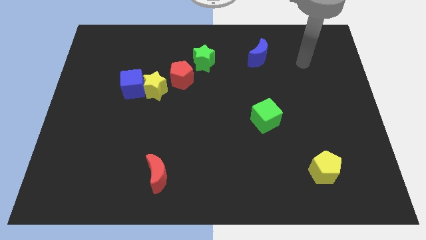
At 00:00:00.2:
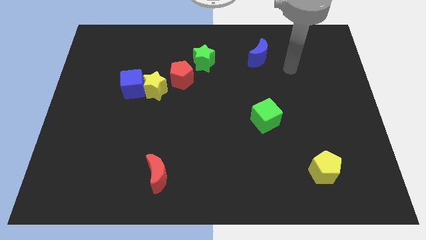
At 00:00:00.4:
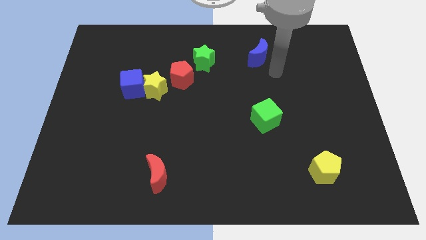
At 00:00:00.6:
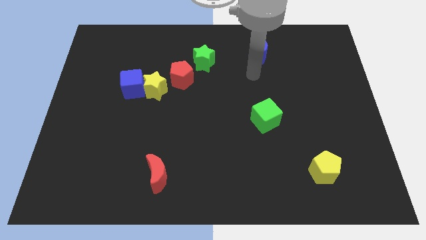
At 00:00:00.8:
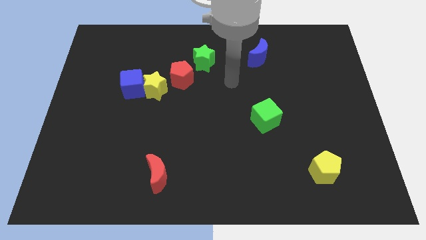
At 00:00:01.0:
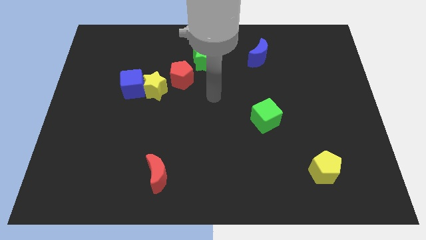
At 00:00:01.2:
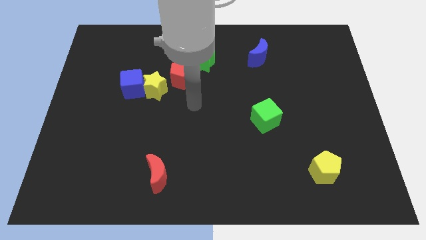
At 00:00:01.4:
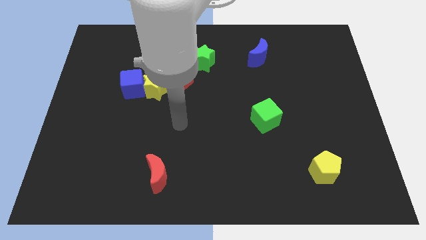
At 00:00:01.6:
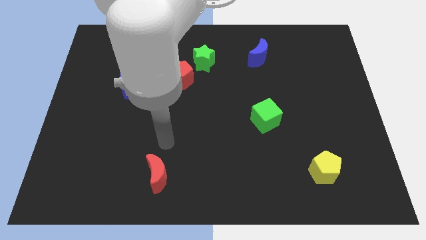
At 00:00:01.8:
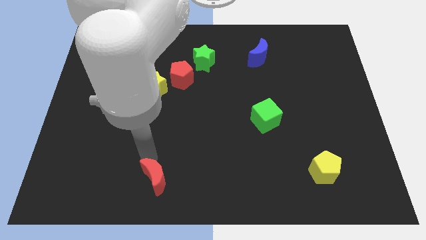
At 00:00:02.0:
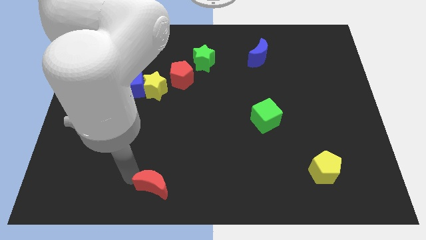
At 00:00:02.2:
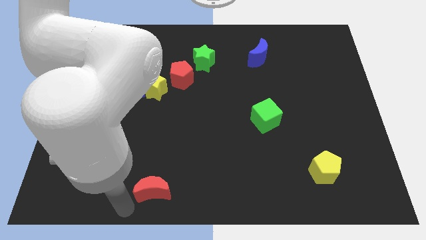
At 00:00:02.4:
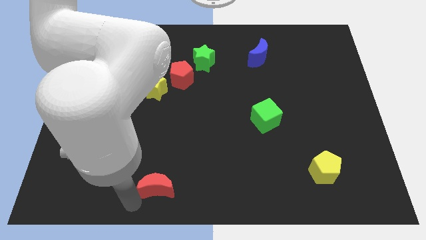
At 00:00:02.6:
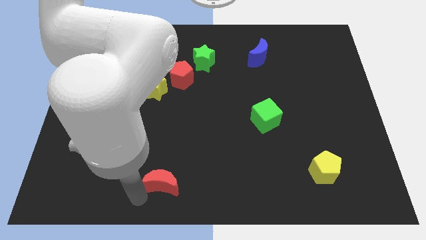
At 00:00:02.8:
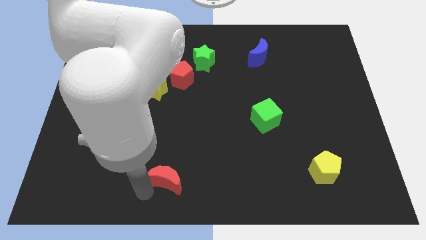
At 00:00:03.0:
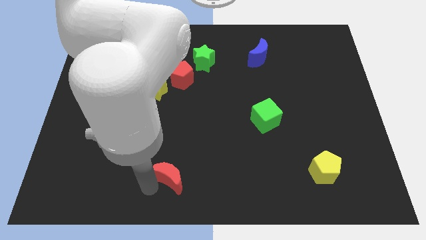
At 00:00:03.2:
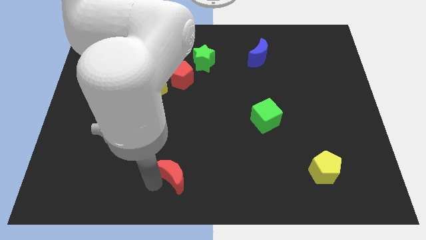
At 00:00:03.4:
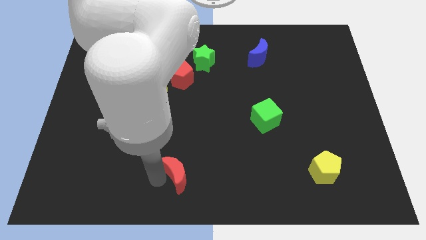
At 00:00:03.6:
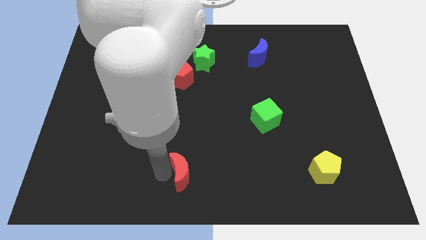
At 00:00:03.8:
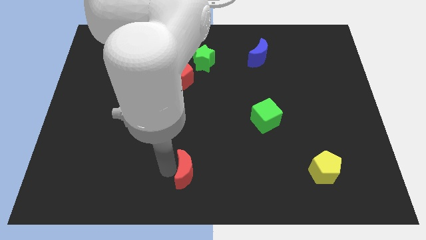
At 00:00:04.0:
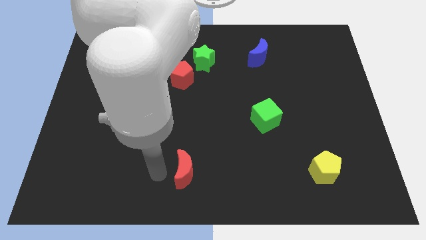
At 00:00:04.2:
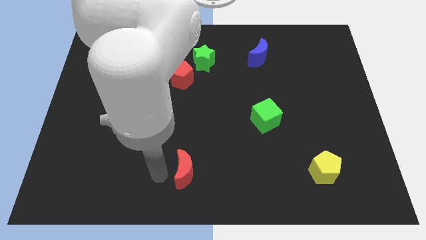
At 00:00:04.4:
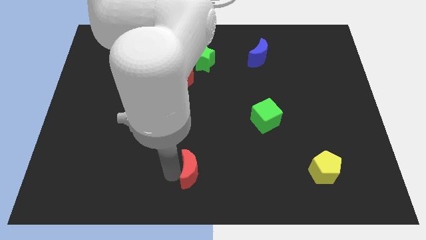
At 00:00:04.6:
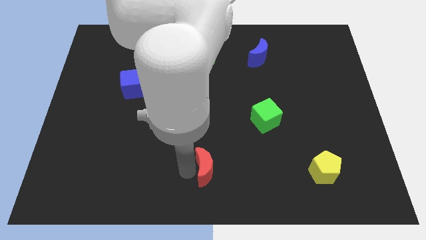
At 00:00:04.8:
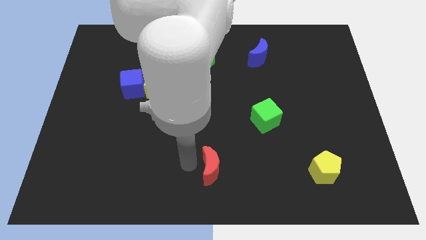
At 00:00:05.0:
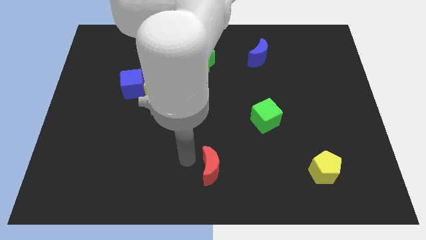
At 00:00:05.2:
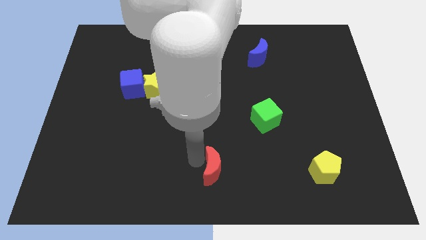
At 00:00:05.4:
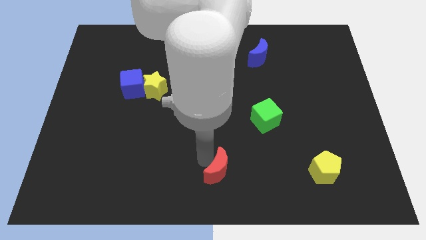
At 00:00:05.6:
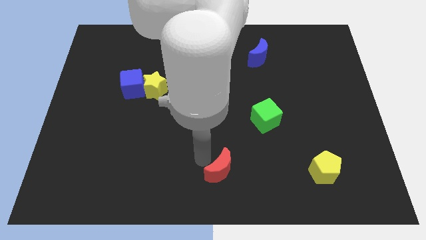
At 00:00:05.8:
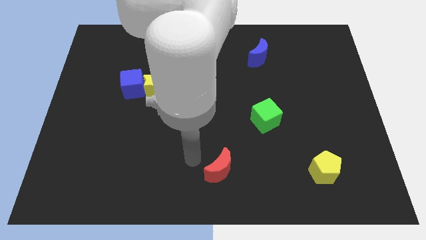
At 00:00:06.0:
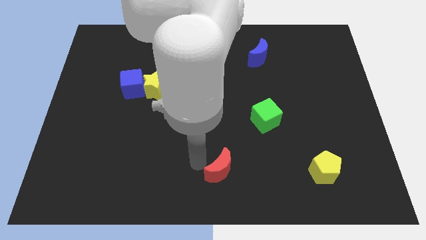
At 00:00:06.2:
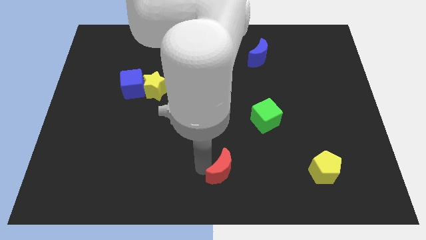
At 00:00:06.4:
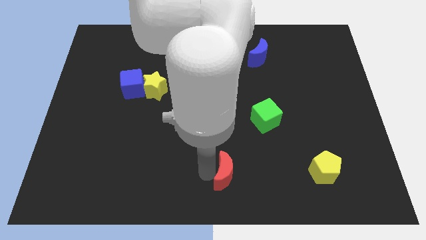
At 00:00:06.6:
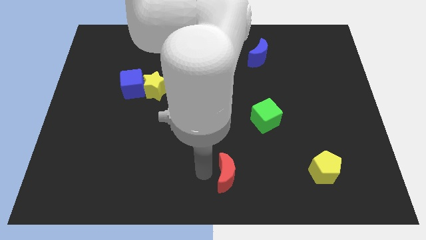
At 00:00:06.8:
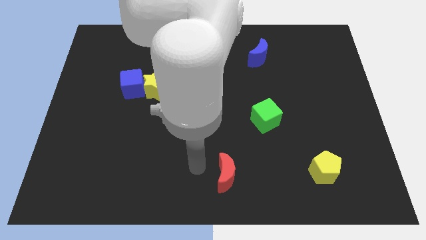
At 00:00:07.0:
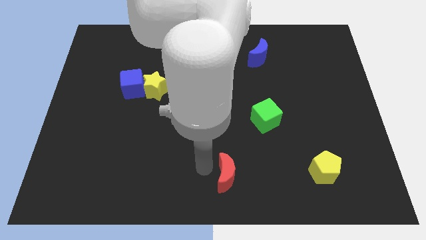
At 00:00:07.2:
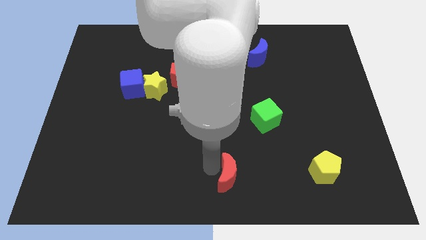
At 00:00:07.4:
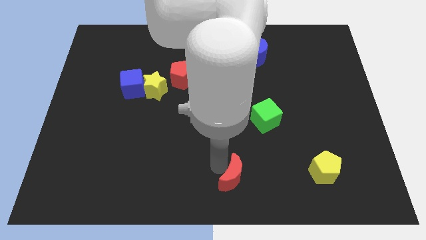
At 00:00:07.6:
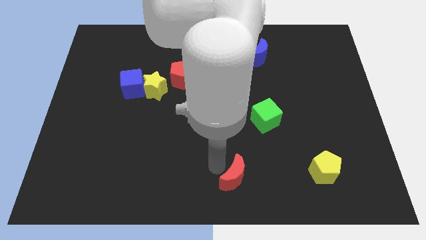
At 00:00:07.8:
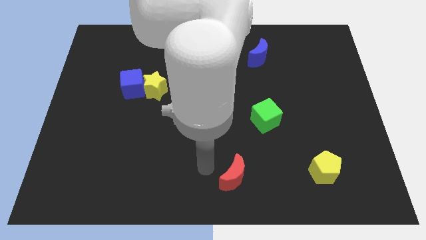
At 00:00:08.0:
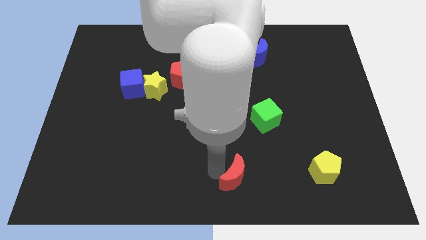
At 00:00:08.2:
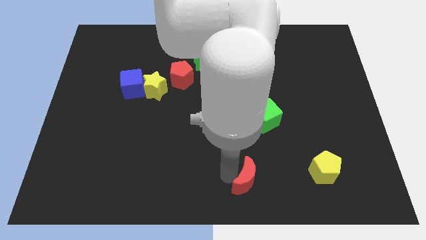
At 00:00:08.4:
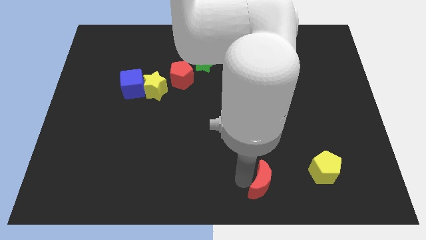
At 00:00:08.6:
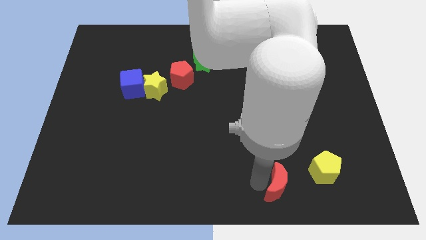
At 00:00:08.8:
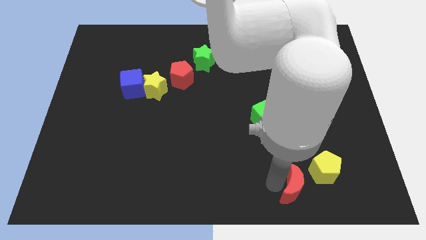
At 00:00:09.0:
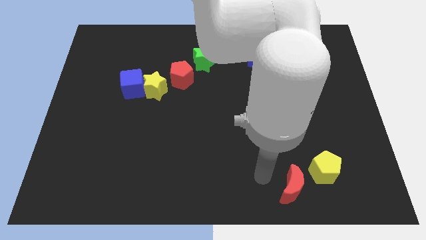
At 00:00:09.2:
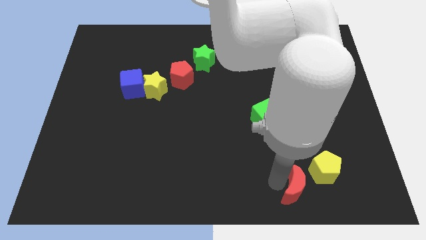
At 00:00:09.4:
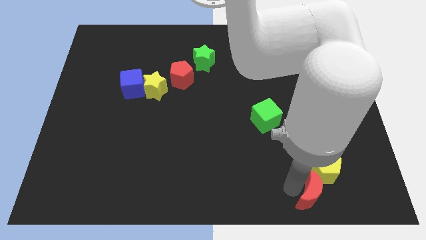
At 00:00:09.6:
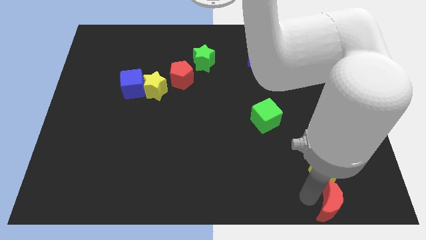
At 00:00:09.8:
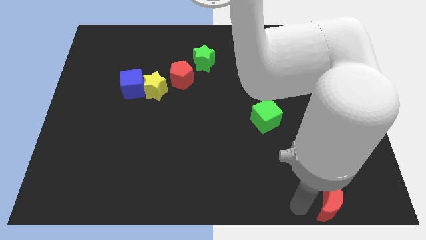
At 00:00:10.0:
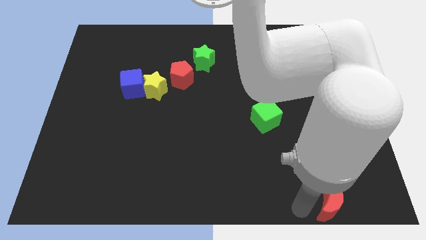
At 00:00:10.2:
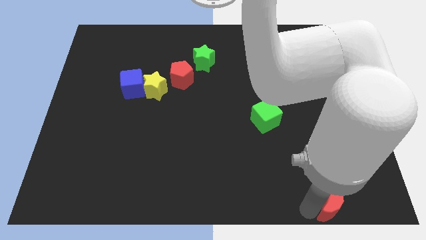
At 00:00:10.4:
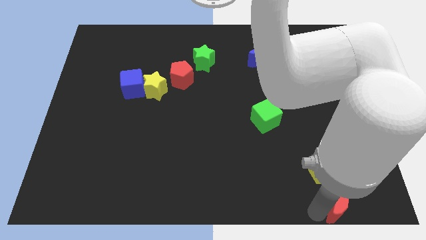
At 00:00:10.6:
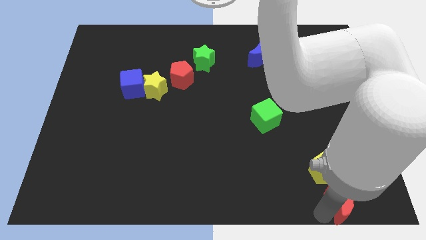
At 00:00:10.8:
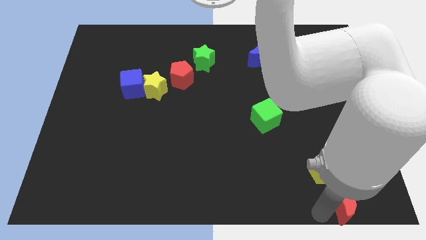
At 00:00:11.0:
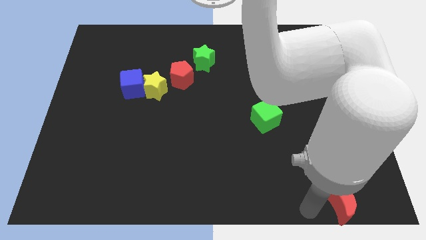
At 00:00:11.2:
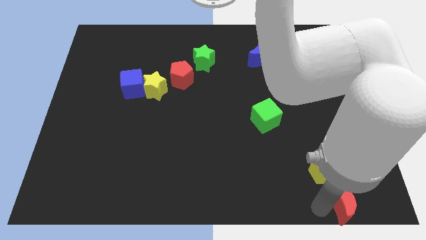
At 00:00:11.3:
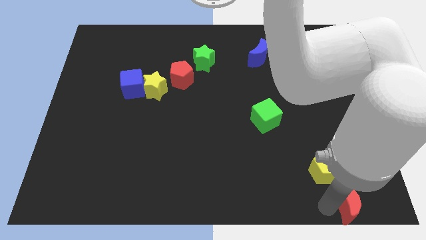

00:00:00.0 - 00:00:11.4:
move the red moon to the bottom right of the board

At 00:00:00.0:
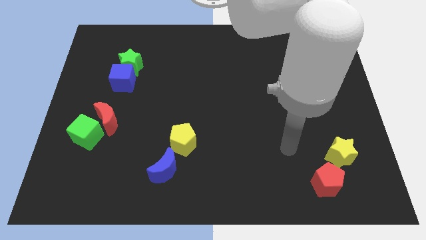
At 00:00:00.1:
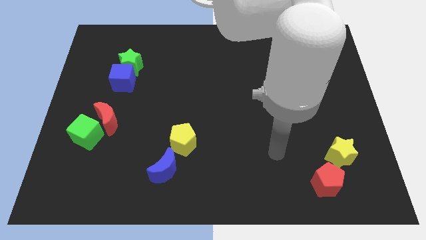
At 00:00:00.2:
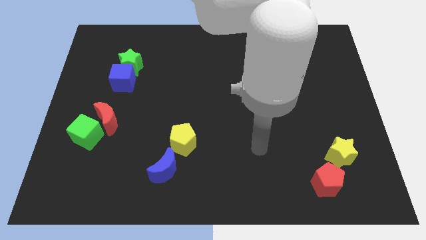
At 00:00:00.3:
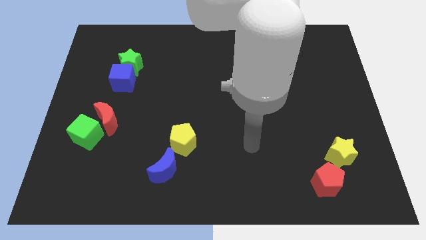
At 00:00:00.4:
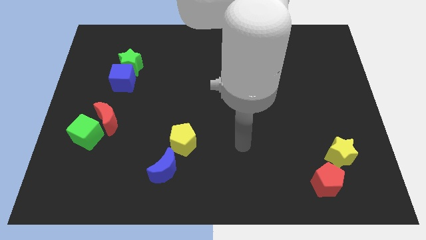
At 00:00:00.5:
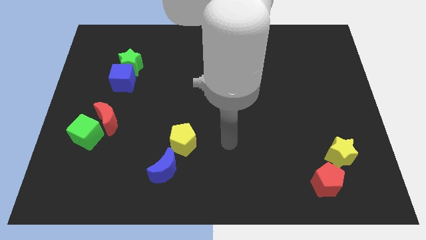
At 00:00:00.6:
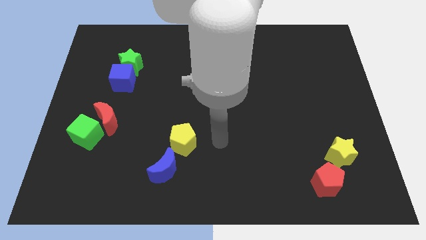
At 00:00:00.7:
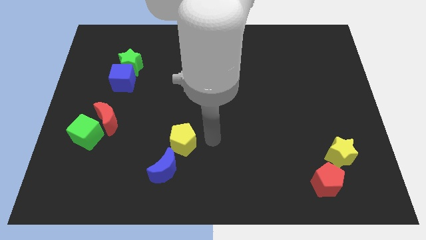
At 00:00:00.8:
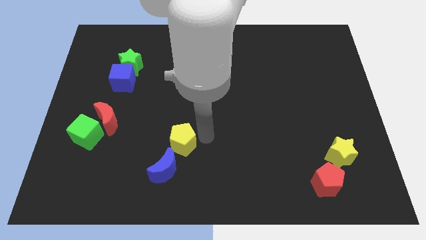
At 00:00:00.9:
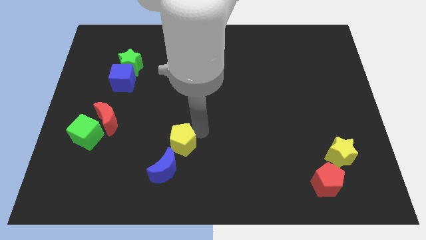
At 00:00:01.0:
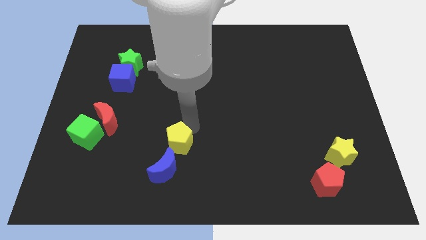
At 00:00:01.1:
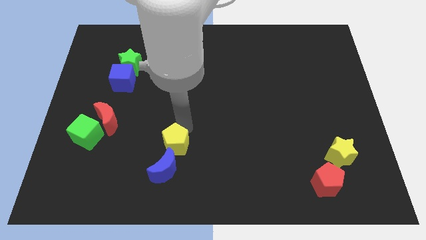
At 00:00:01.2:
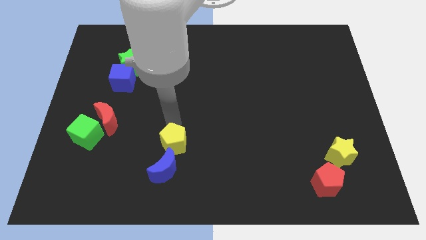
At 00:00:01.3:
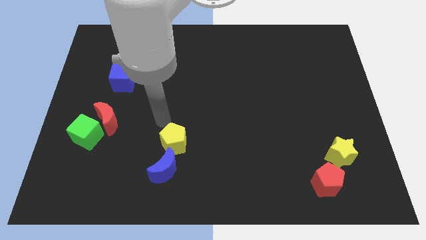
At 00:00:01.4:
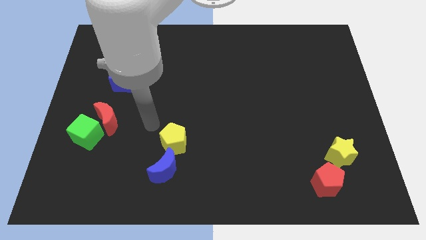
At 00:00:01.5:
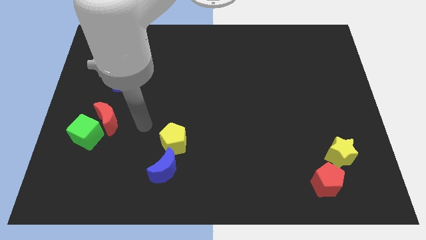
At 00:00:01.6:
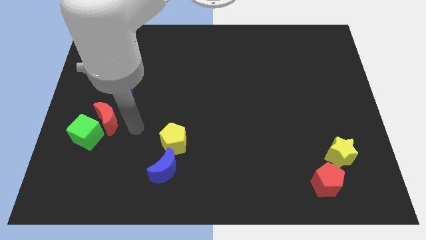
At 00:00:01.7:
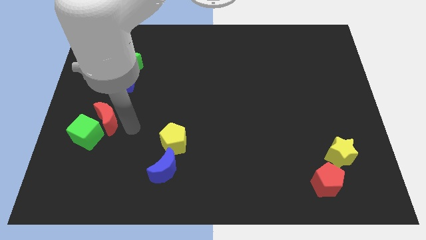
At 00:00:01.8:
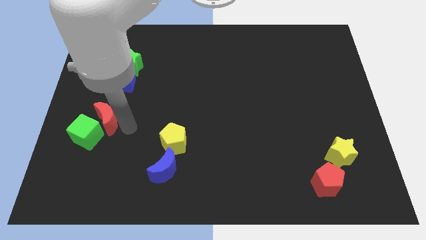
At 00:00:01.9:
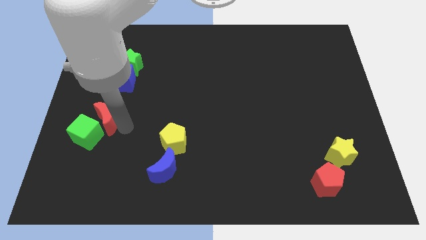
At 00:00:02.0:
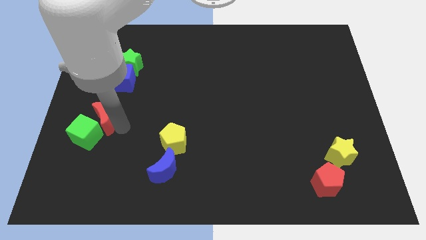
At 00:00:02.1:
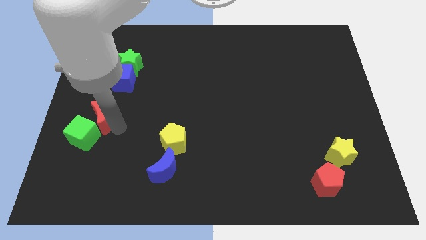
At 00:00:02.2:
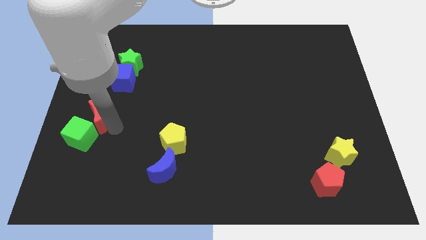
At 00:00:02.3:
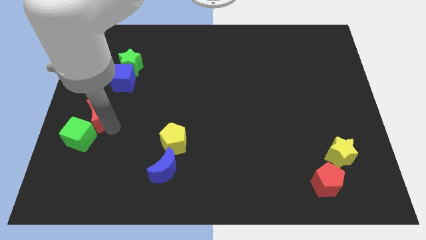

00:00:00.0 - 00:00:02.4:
put the red moon to the left side
